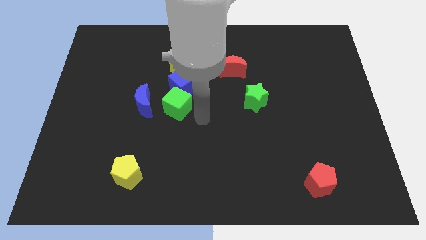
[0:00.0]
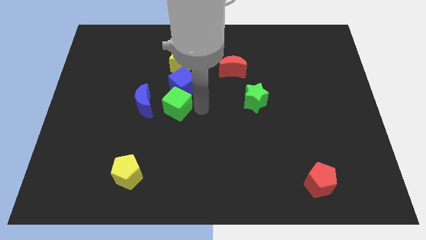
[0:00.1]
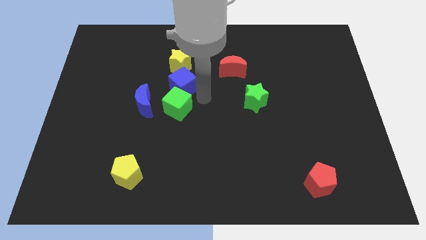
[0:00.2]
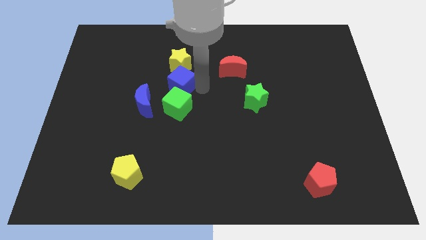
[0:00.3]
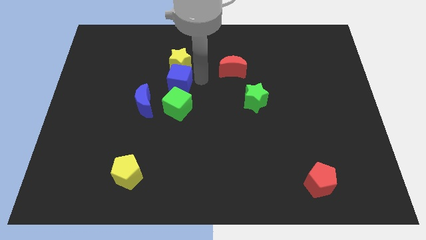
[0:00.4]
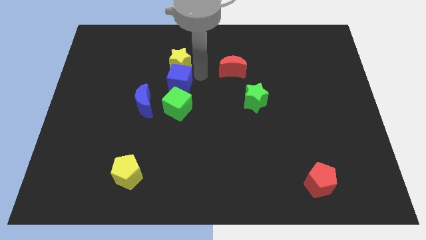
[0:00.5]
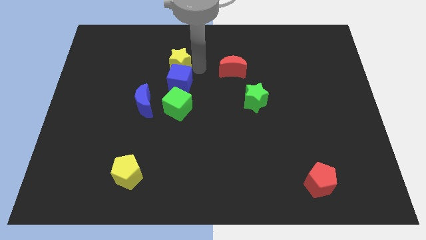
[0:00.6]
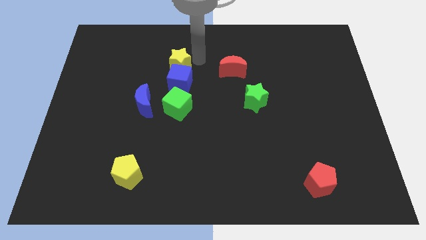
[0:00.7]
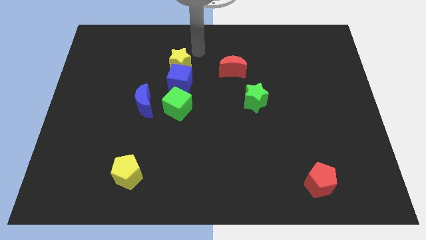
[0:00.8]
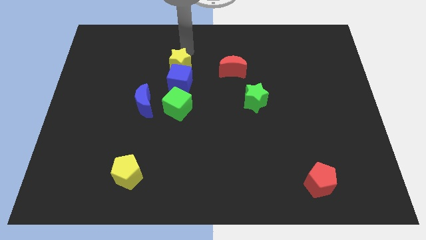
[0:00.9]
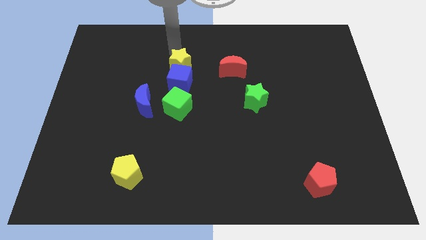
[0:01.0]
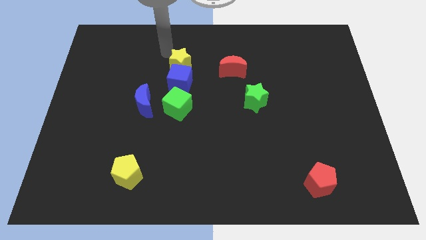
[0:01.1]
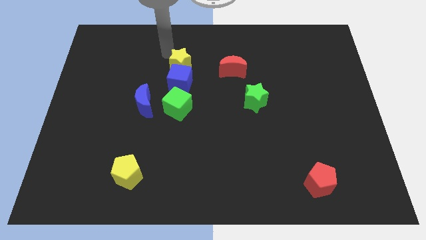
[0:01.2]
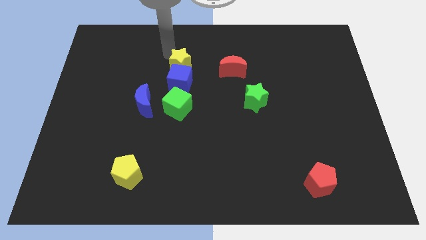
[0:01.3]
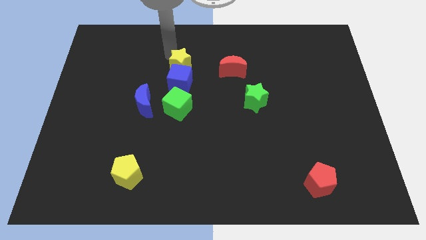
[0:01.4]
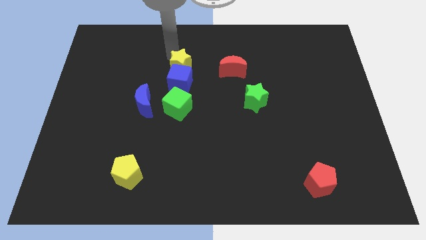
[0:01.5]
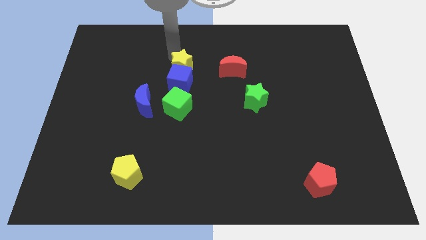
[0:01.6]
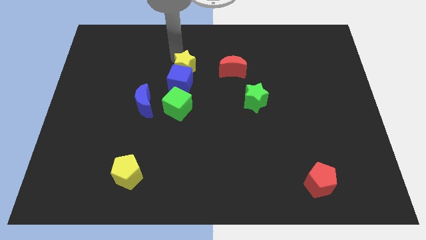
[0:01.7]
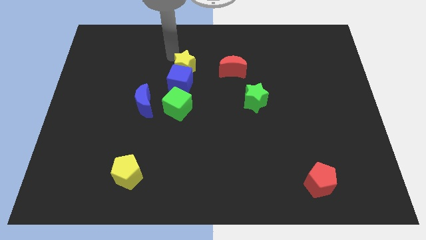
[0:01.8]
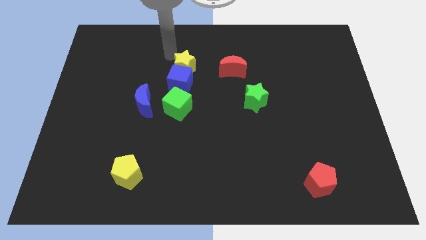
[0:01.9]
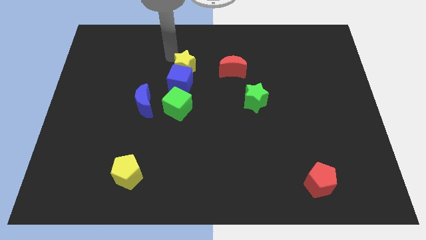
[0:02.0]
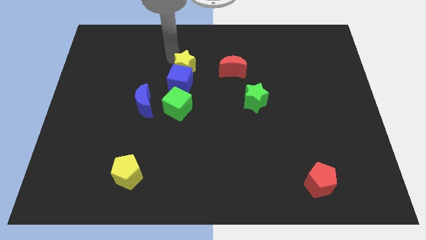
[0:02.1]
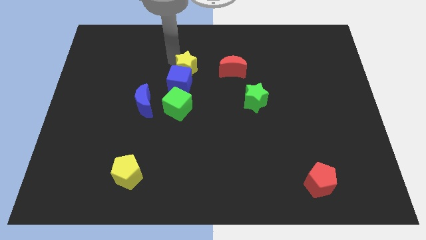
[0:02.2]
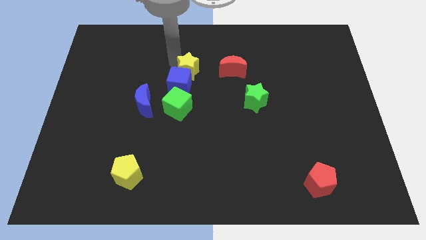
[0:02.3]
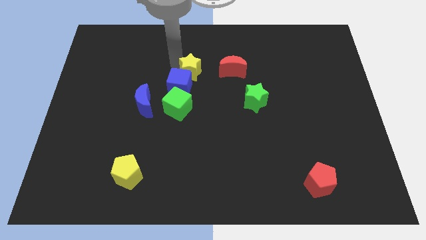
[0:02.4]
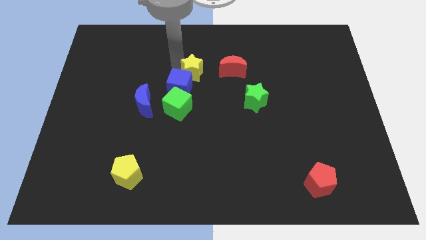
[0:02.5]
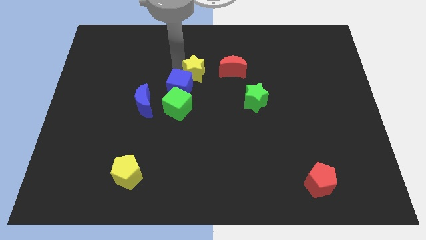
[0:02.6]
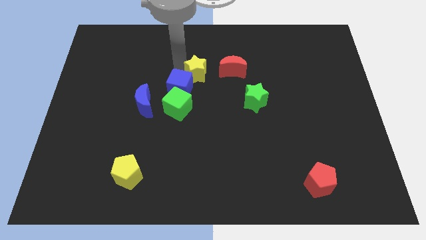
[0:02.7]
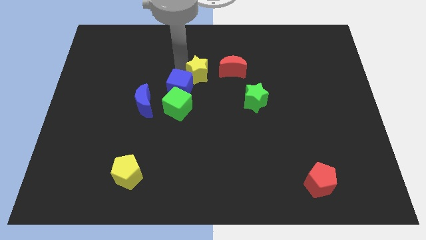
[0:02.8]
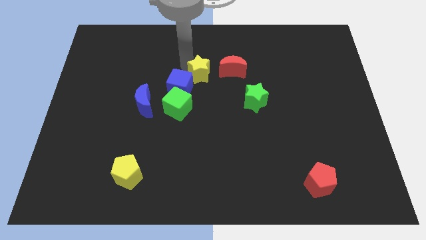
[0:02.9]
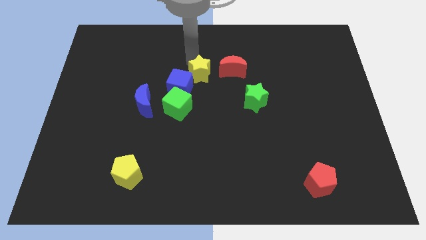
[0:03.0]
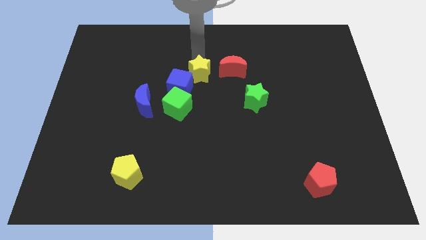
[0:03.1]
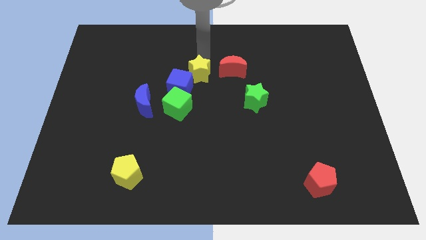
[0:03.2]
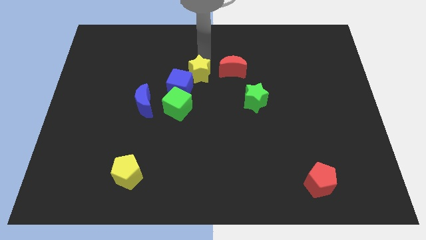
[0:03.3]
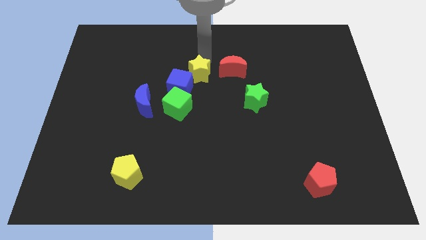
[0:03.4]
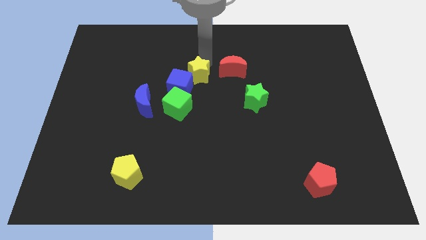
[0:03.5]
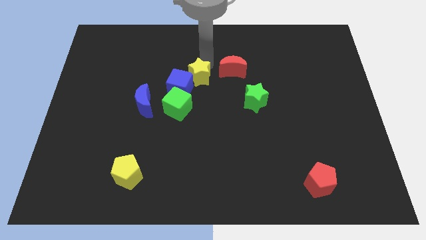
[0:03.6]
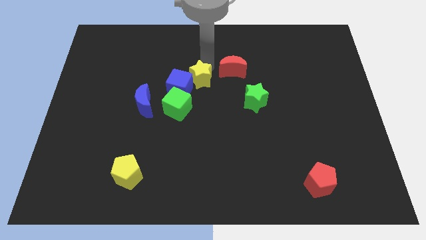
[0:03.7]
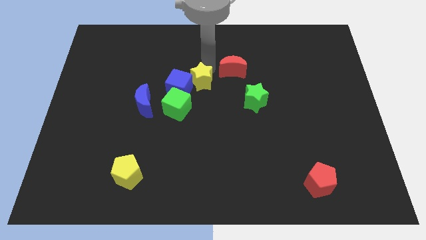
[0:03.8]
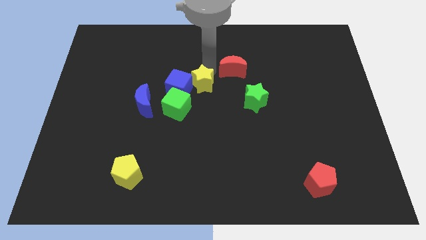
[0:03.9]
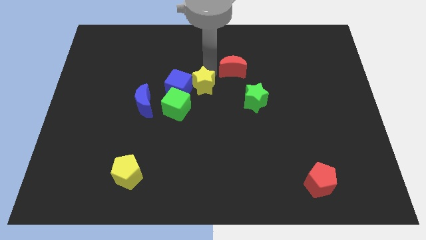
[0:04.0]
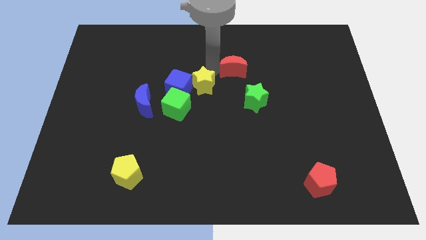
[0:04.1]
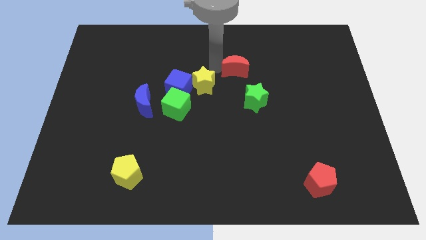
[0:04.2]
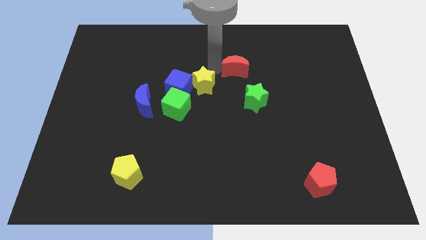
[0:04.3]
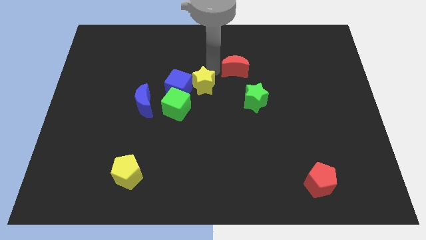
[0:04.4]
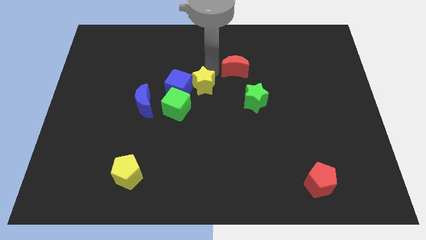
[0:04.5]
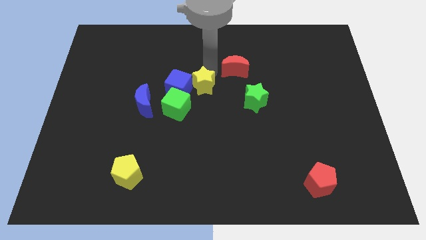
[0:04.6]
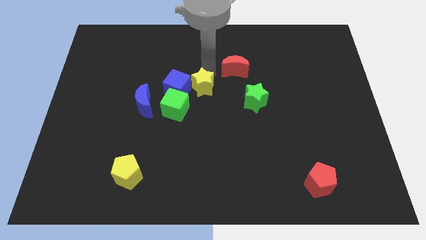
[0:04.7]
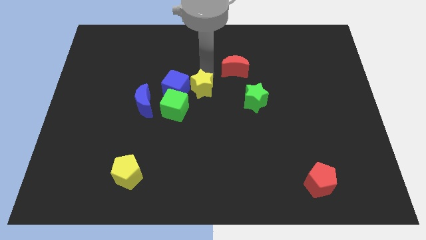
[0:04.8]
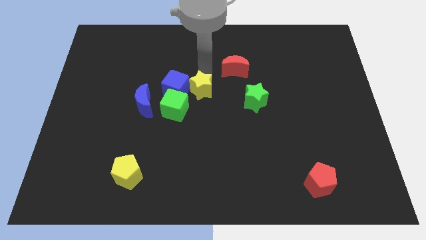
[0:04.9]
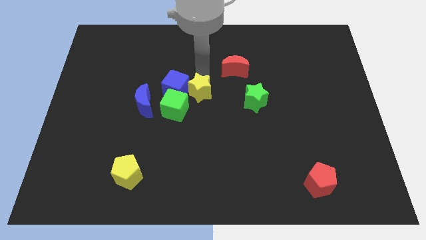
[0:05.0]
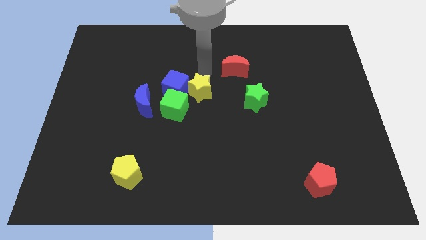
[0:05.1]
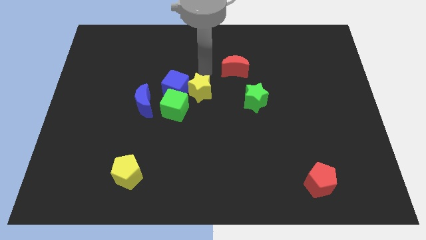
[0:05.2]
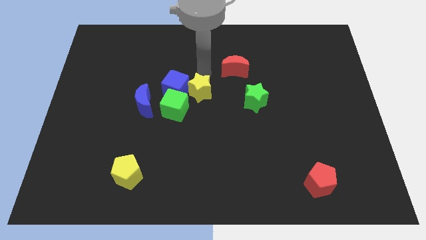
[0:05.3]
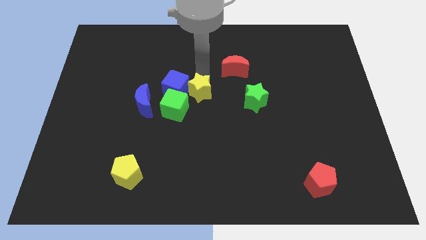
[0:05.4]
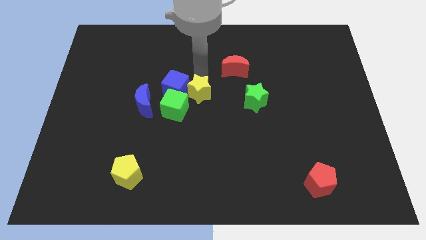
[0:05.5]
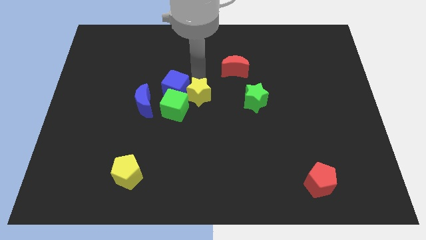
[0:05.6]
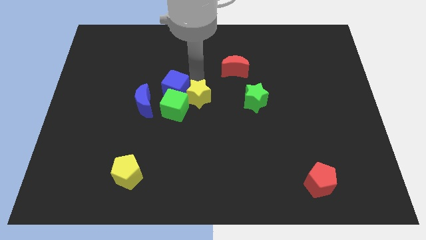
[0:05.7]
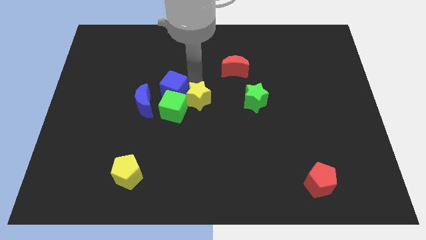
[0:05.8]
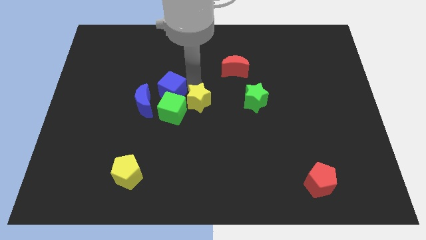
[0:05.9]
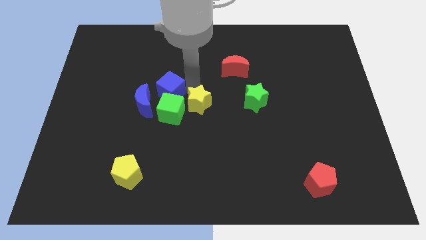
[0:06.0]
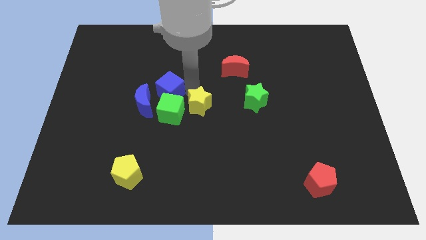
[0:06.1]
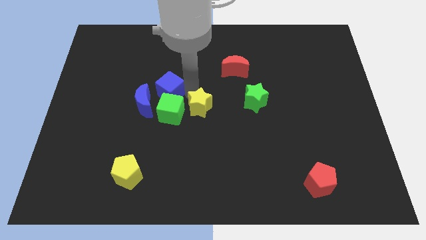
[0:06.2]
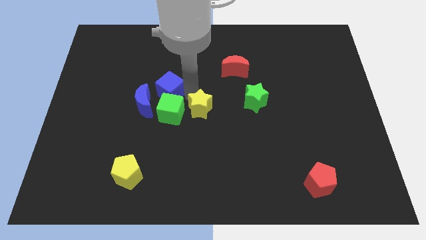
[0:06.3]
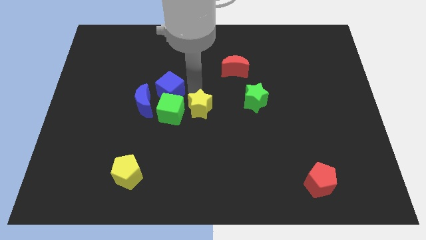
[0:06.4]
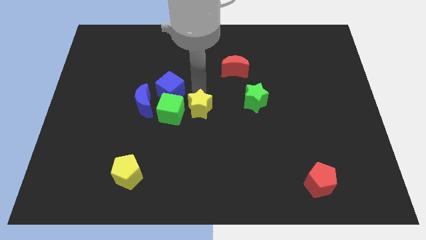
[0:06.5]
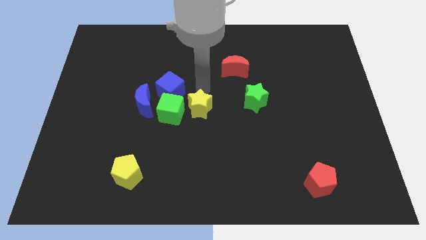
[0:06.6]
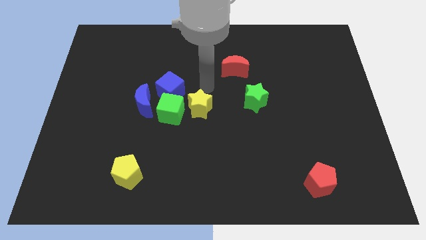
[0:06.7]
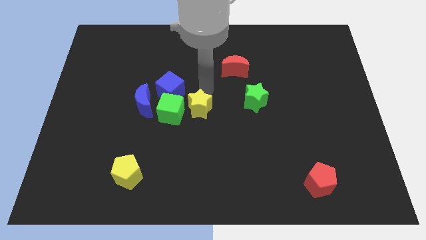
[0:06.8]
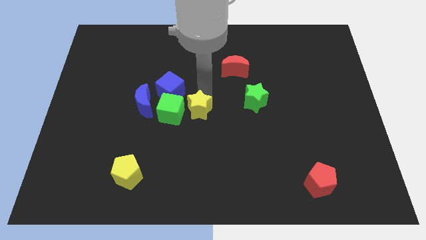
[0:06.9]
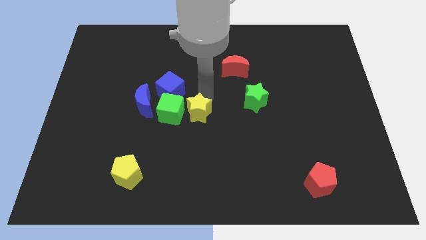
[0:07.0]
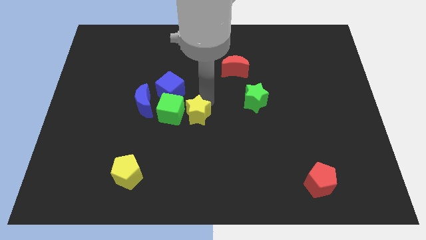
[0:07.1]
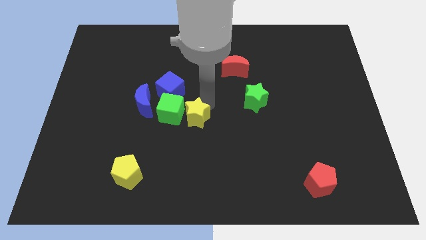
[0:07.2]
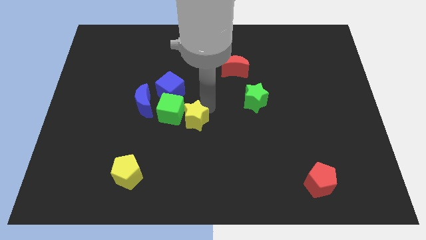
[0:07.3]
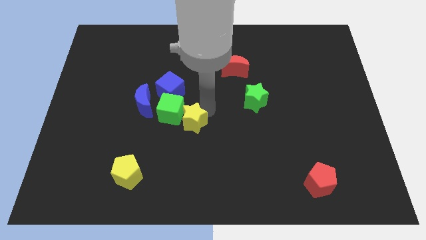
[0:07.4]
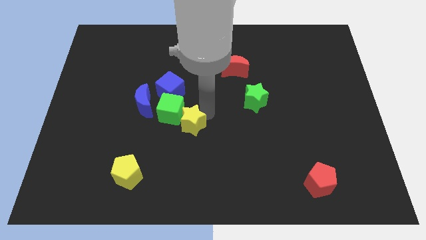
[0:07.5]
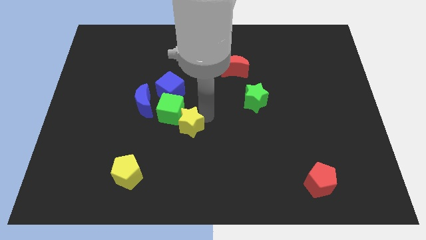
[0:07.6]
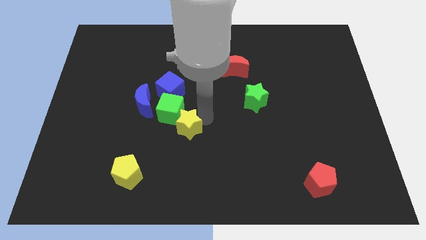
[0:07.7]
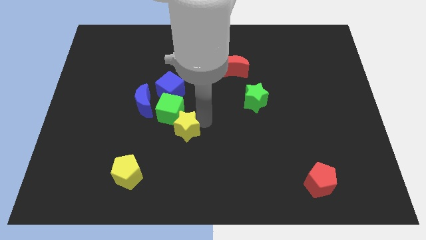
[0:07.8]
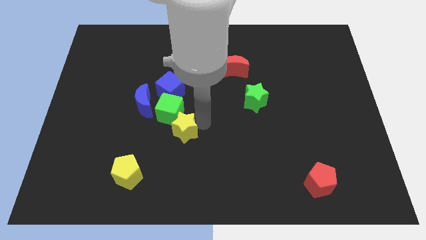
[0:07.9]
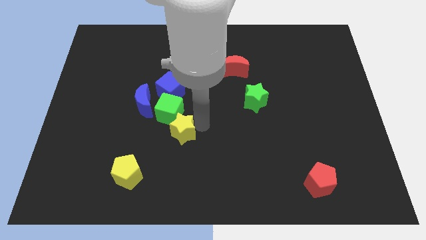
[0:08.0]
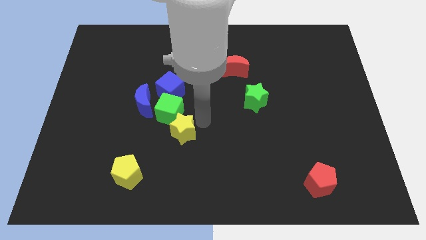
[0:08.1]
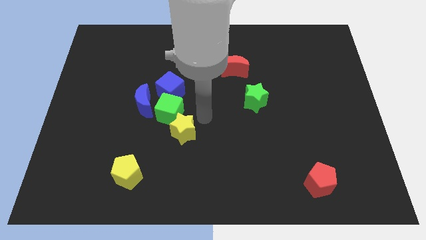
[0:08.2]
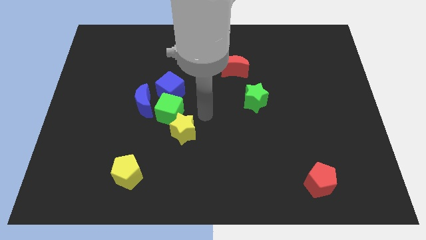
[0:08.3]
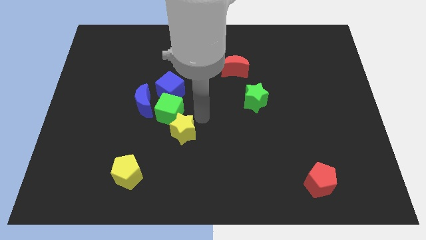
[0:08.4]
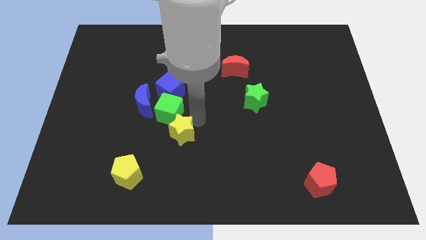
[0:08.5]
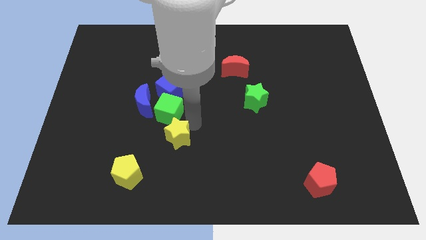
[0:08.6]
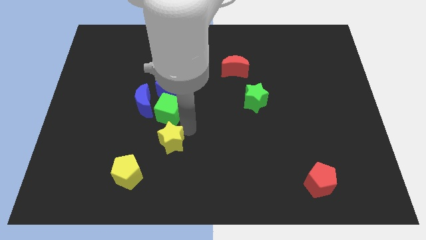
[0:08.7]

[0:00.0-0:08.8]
move the yellow star to the top right side of the yellow pentagon
